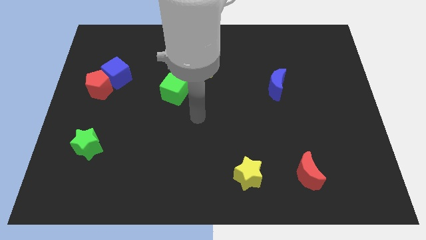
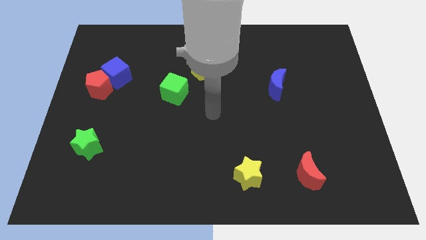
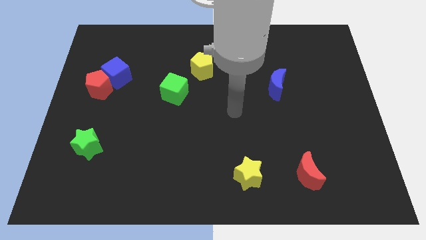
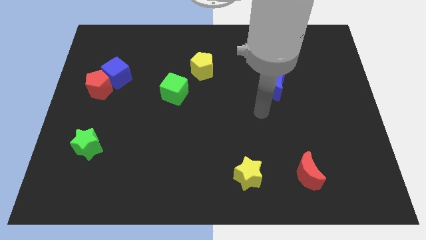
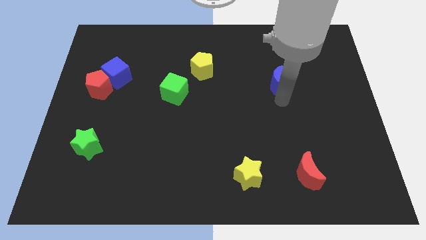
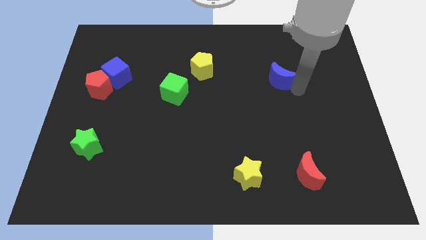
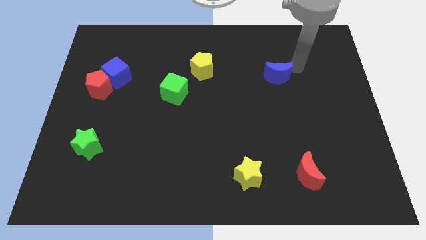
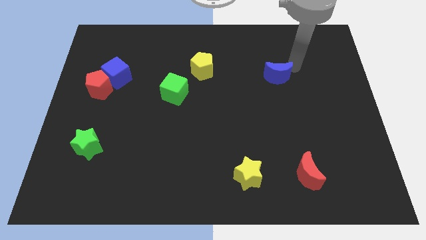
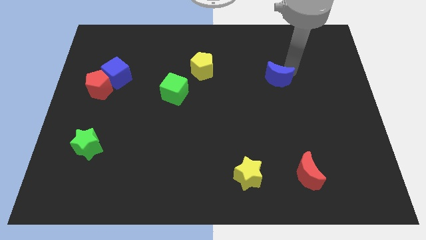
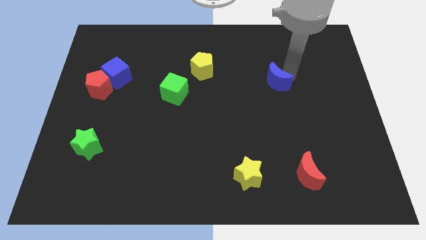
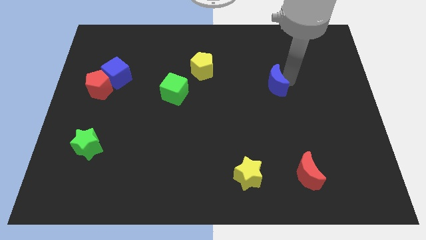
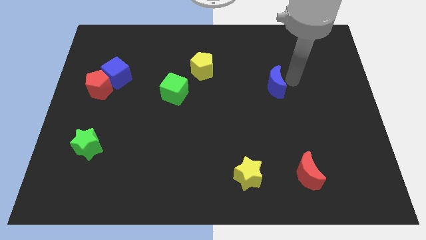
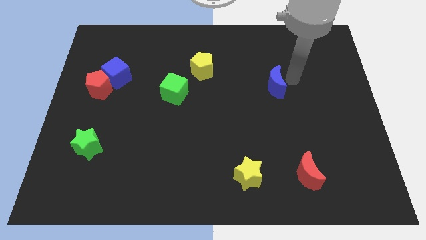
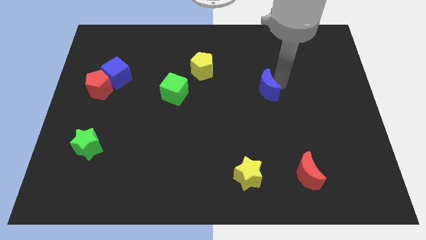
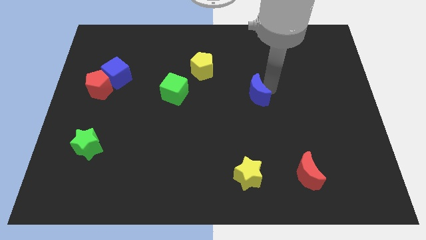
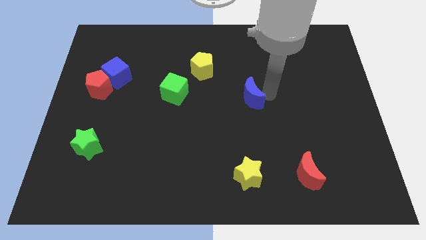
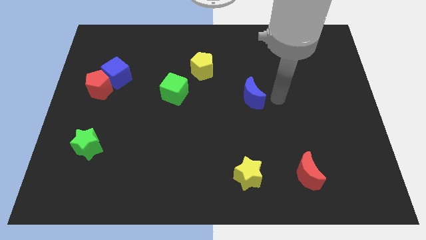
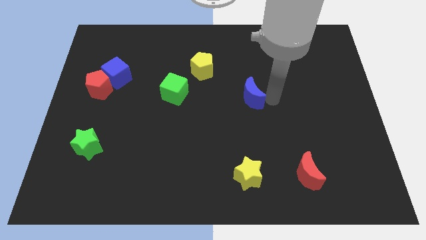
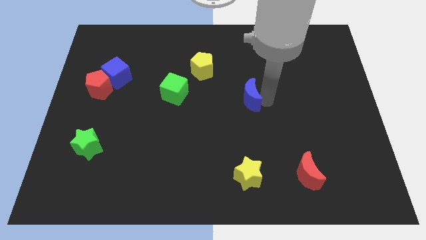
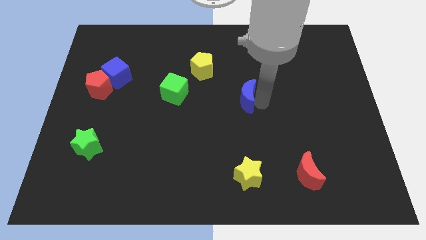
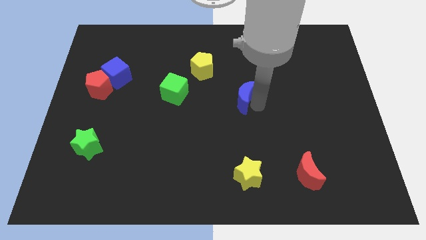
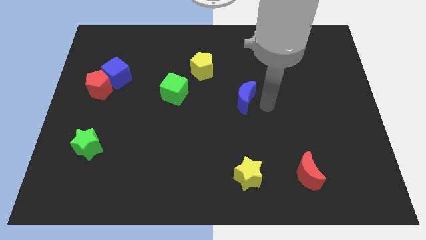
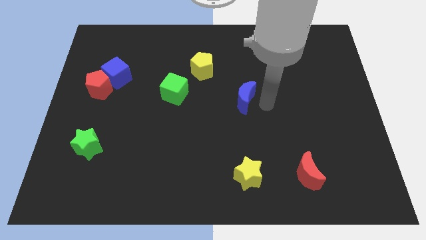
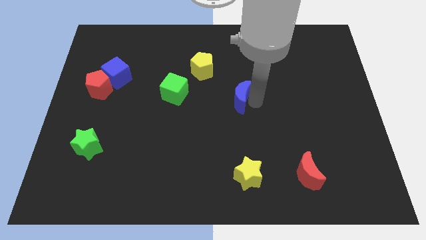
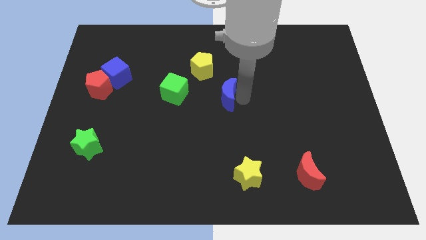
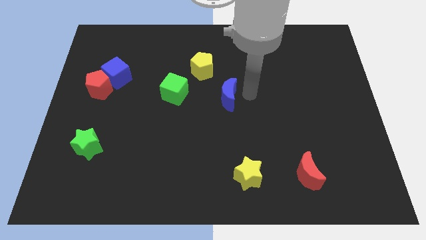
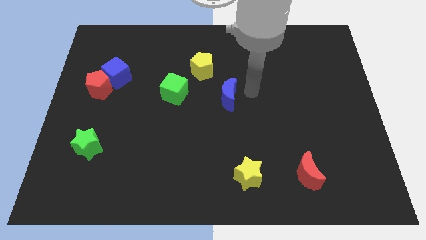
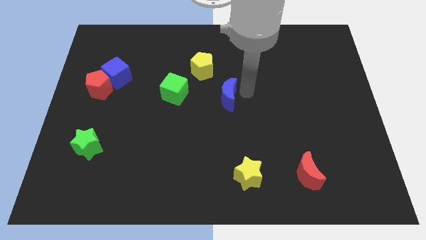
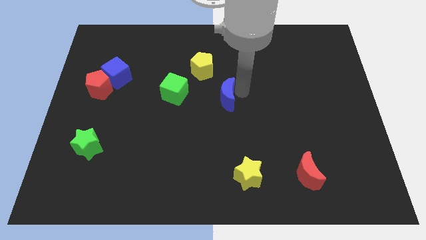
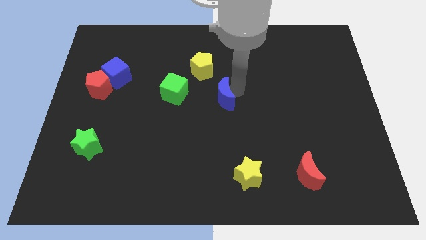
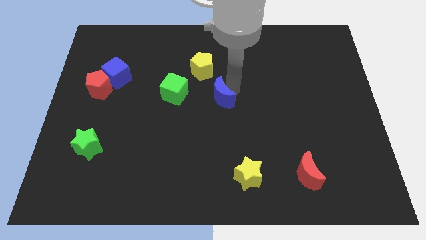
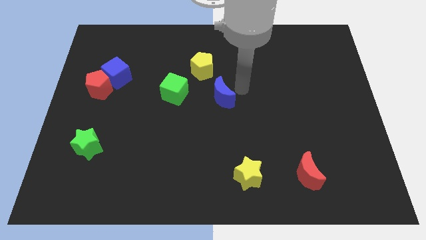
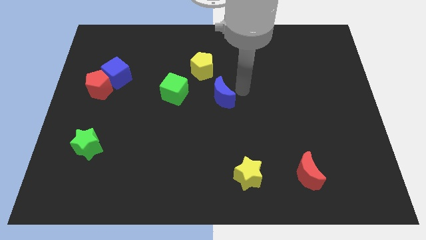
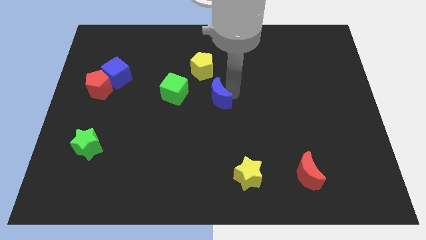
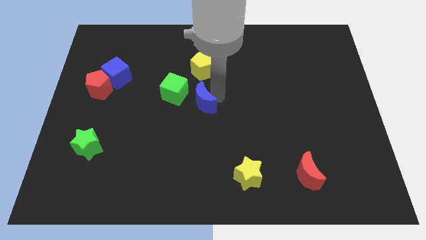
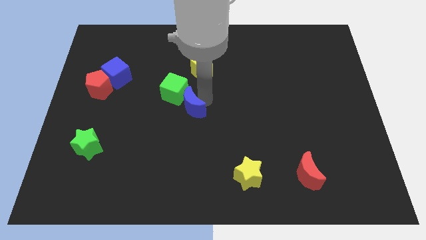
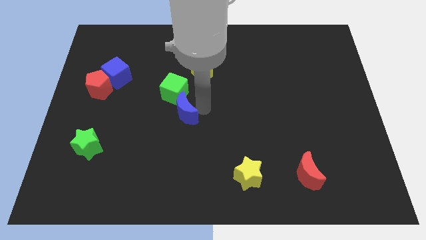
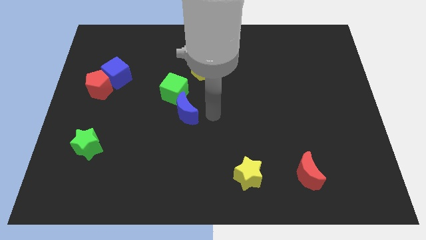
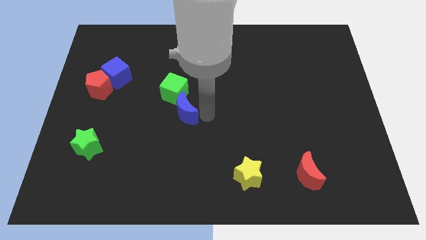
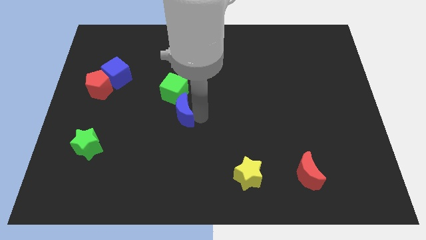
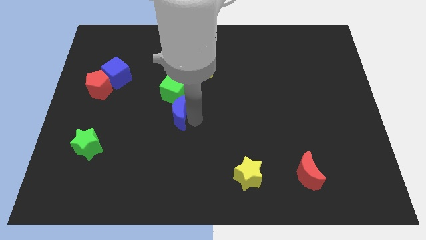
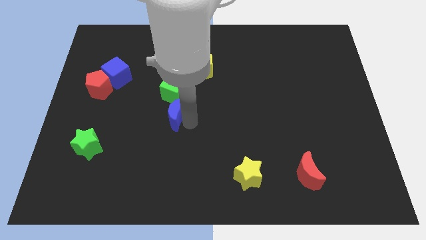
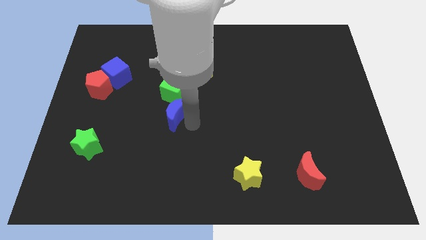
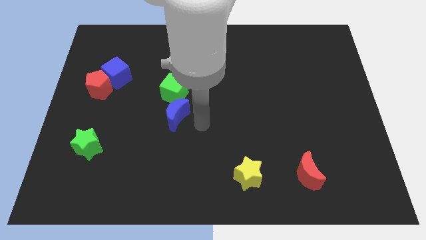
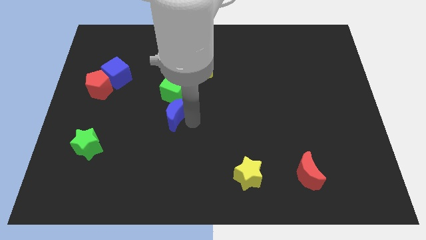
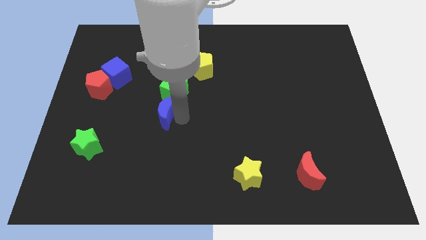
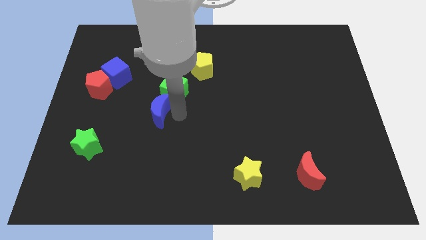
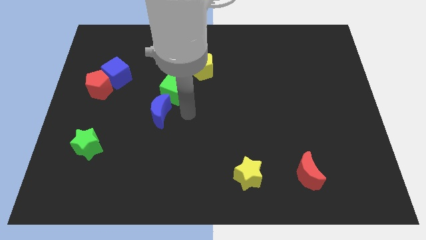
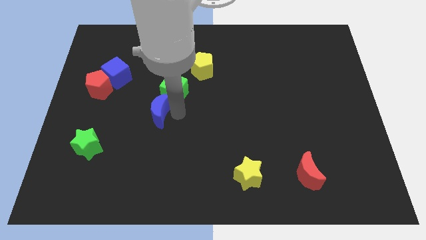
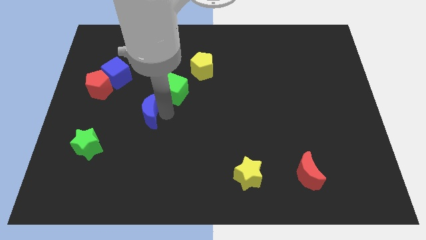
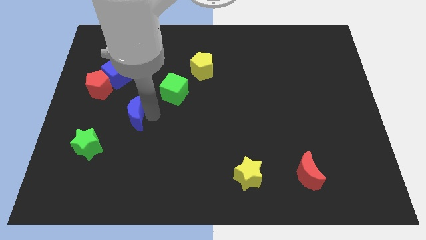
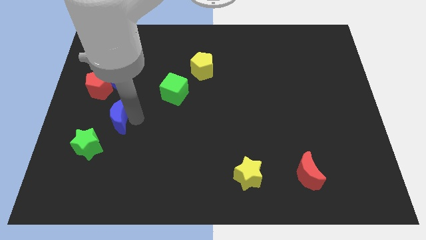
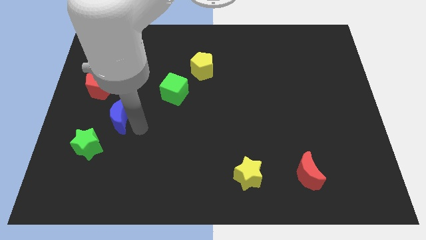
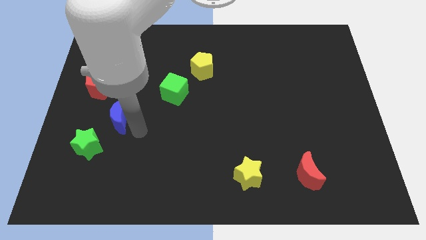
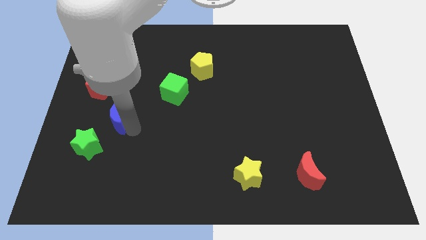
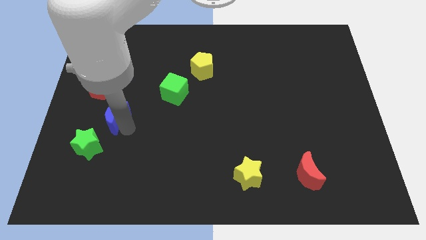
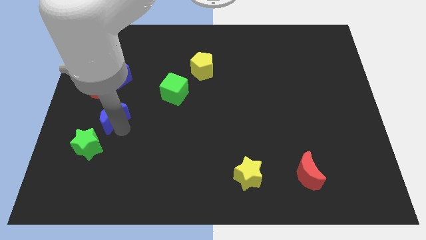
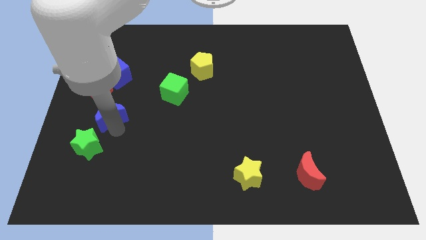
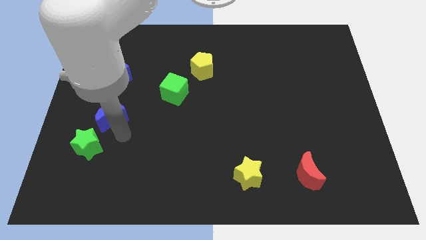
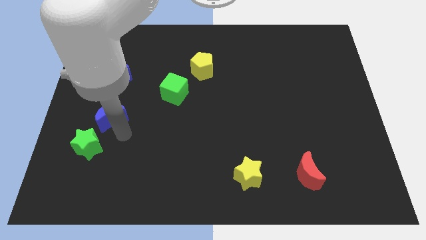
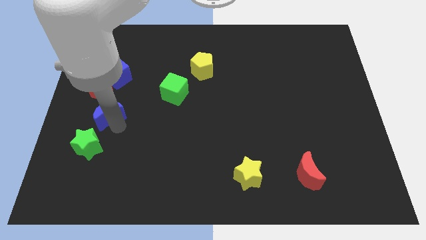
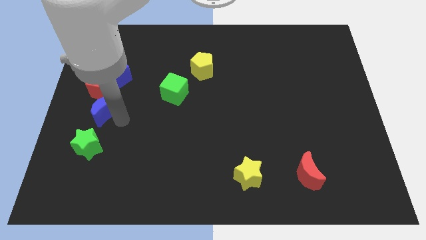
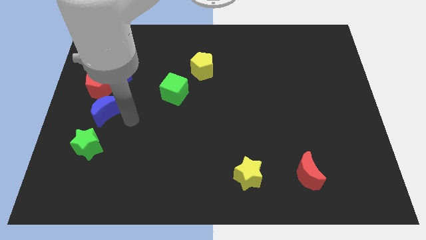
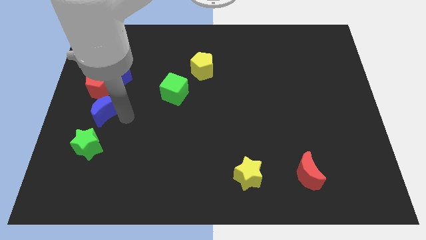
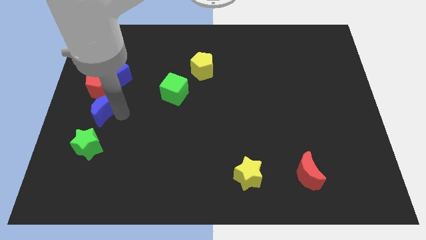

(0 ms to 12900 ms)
slide the blue moon to the left side
